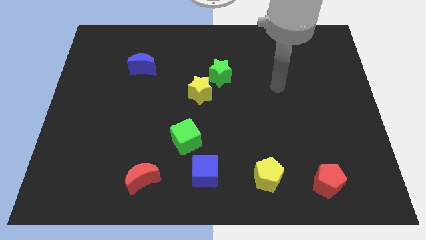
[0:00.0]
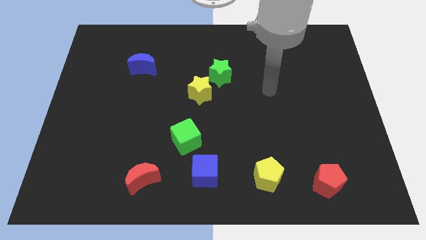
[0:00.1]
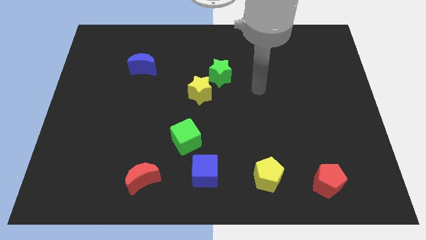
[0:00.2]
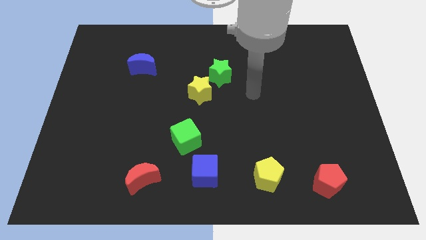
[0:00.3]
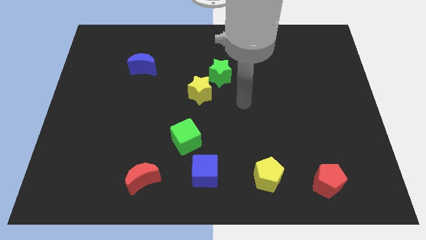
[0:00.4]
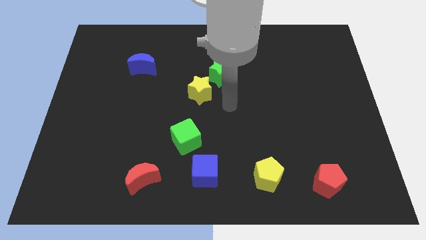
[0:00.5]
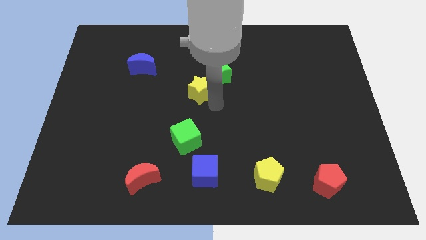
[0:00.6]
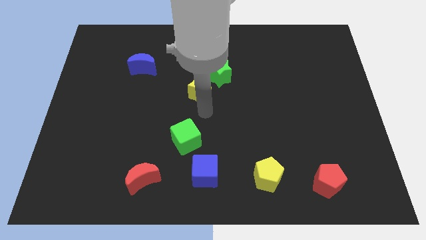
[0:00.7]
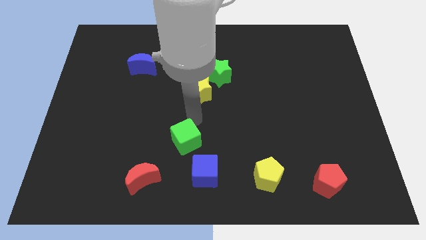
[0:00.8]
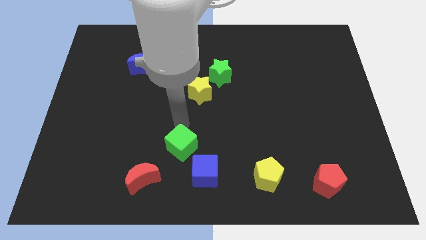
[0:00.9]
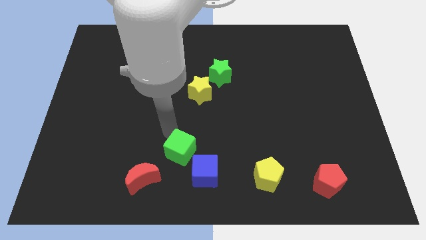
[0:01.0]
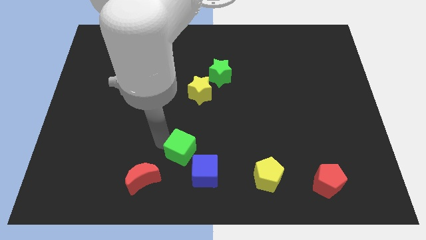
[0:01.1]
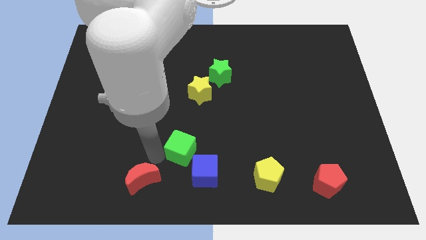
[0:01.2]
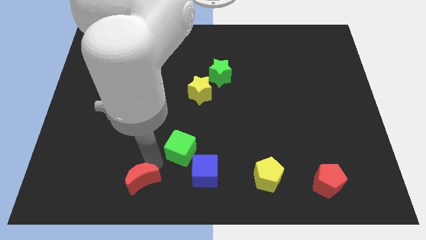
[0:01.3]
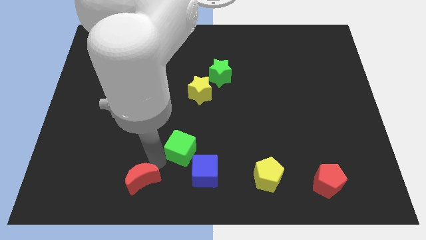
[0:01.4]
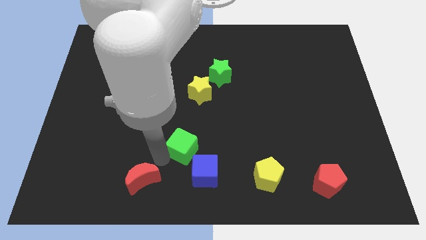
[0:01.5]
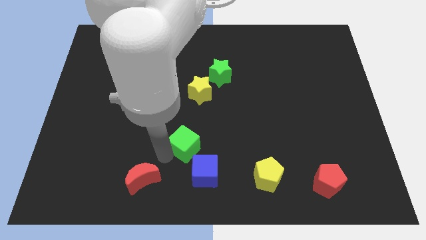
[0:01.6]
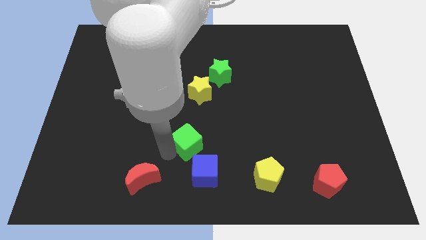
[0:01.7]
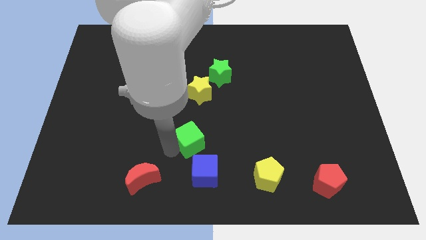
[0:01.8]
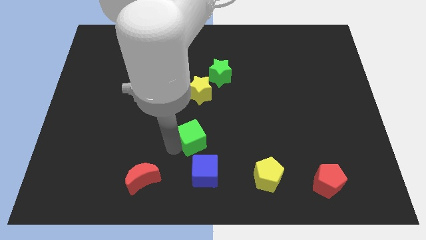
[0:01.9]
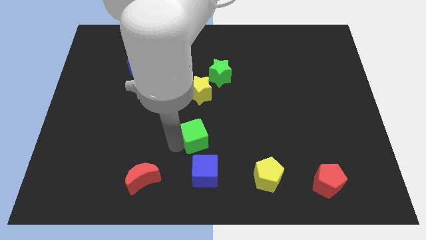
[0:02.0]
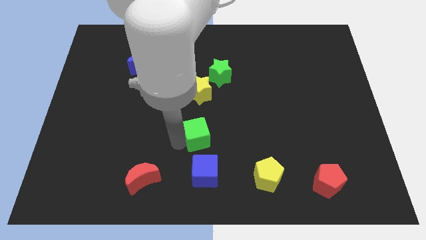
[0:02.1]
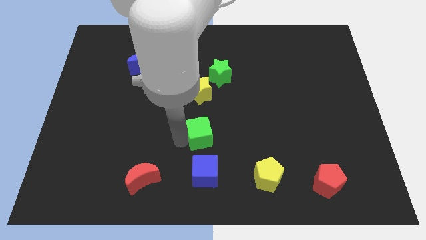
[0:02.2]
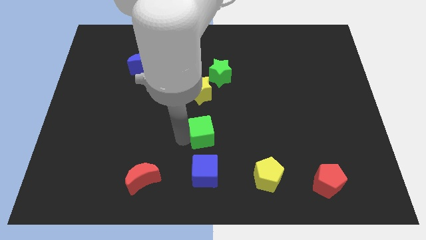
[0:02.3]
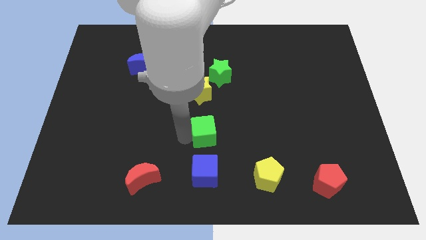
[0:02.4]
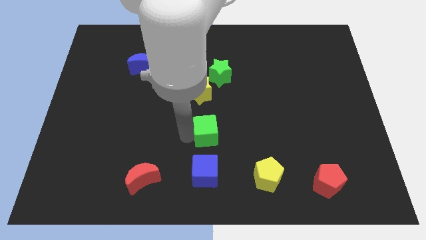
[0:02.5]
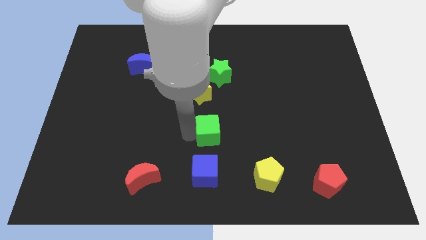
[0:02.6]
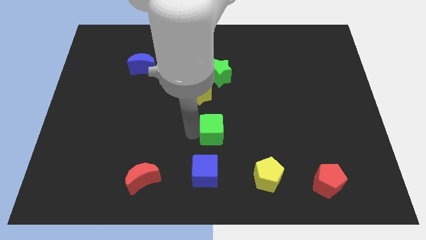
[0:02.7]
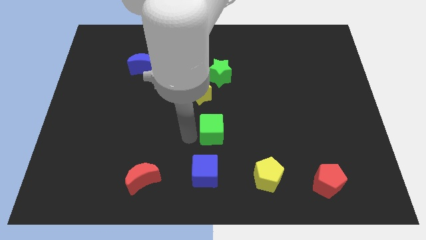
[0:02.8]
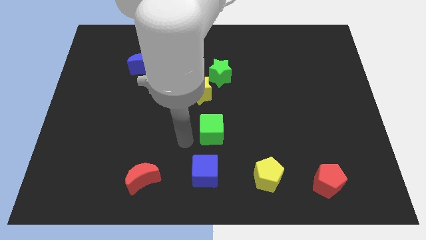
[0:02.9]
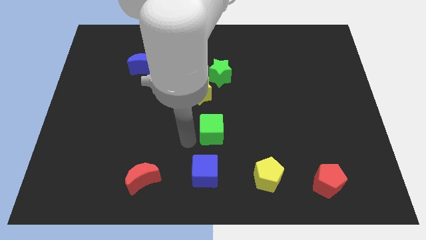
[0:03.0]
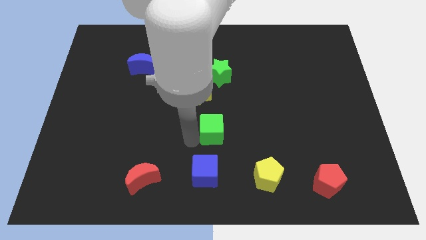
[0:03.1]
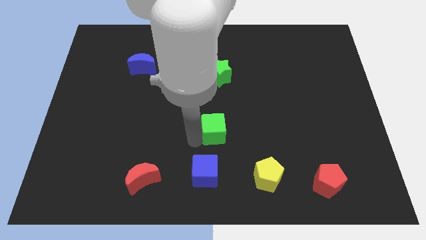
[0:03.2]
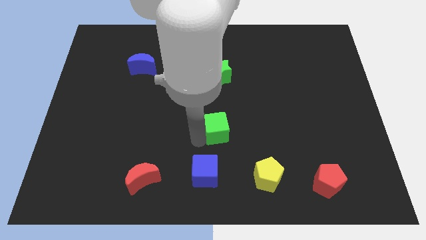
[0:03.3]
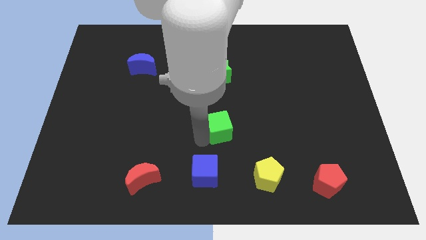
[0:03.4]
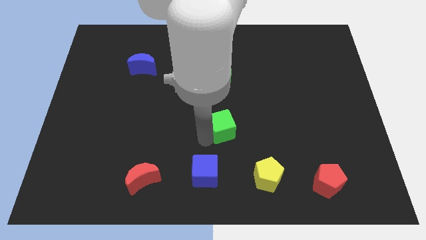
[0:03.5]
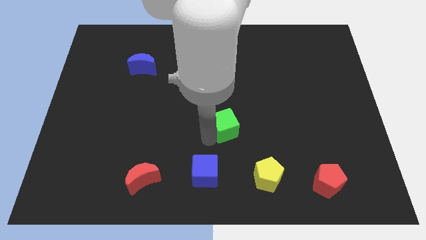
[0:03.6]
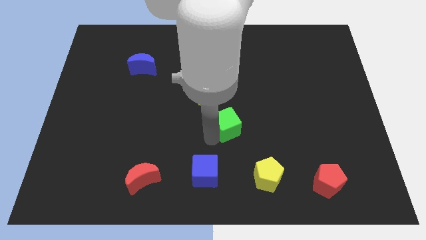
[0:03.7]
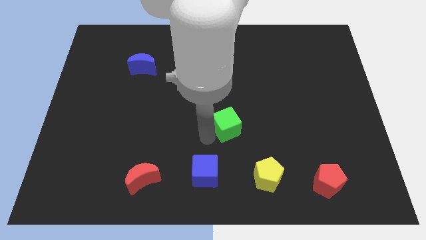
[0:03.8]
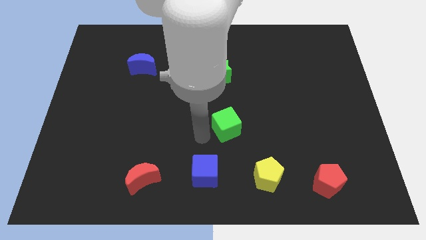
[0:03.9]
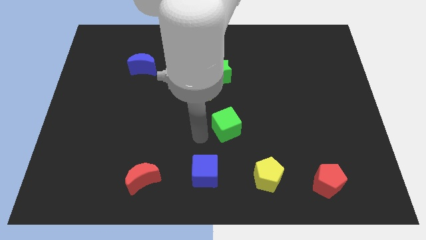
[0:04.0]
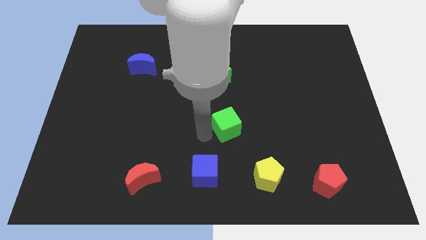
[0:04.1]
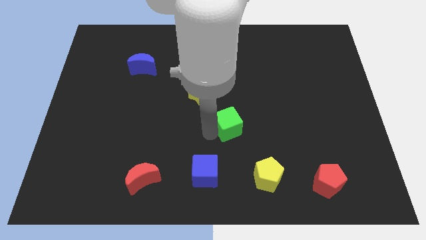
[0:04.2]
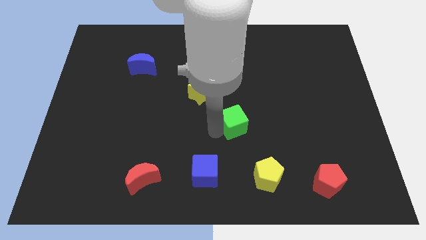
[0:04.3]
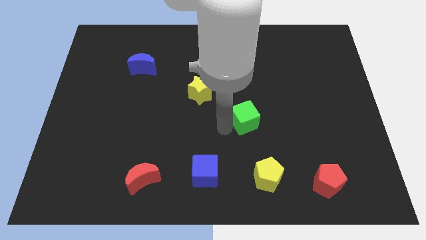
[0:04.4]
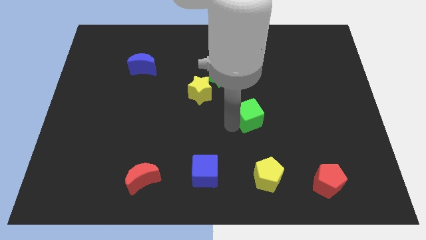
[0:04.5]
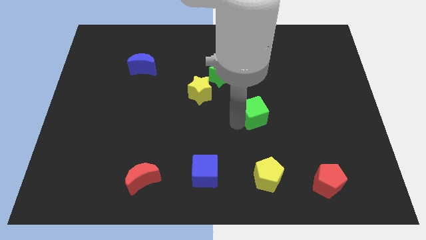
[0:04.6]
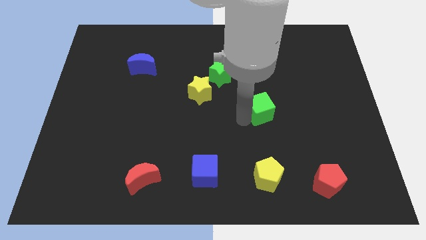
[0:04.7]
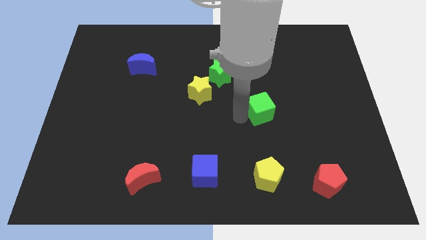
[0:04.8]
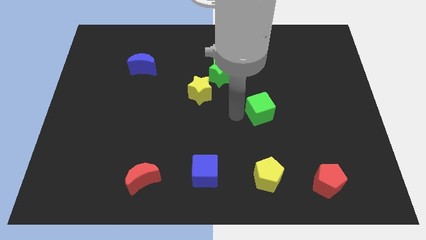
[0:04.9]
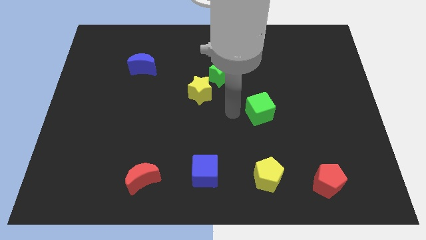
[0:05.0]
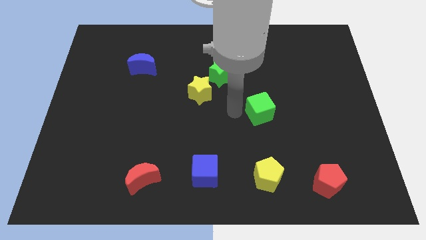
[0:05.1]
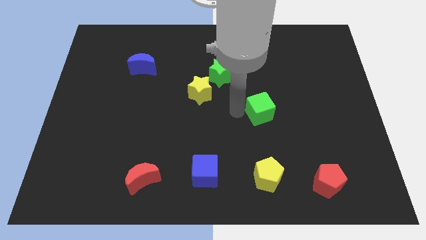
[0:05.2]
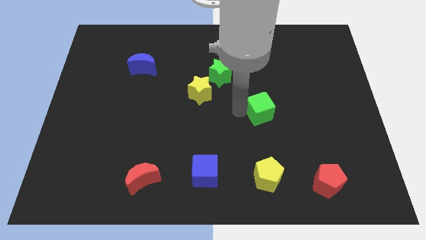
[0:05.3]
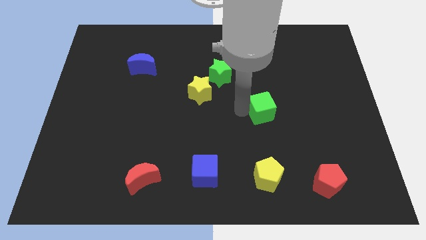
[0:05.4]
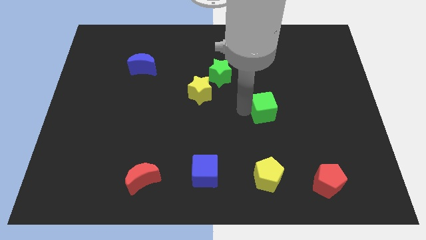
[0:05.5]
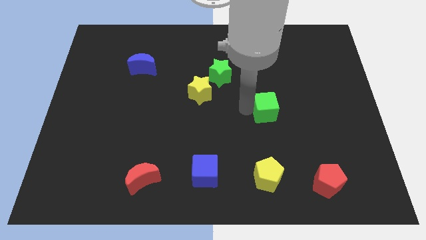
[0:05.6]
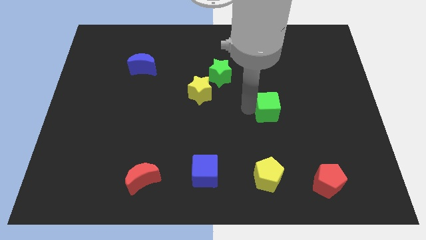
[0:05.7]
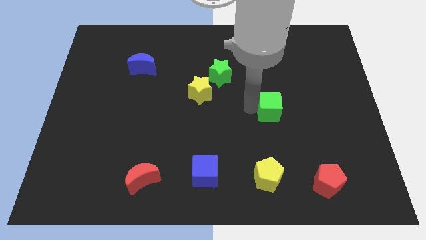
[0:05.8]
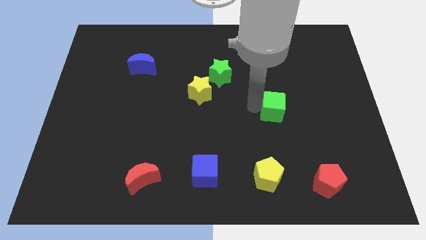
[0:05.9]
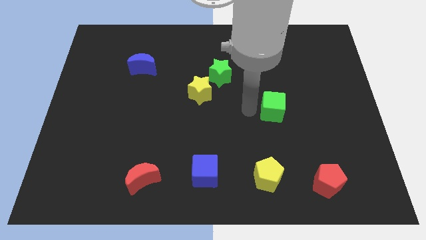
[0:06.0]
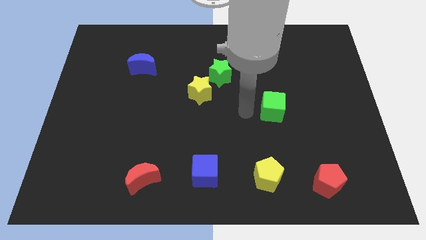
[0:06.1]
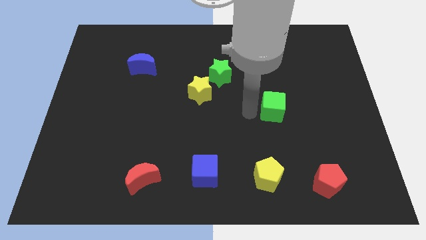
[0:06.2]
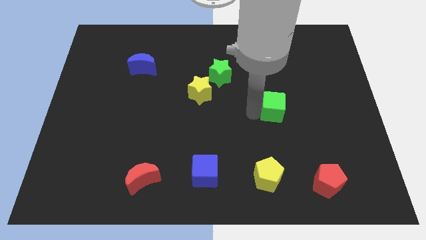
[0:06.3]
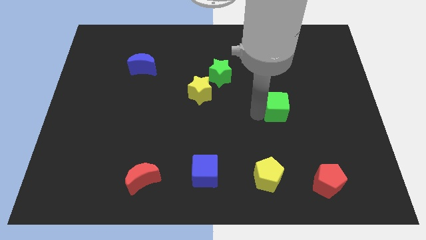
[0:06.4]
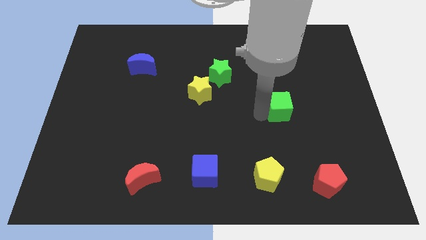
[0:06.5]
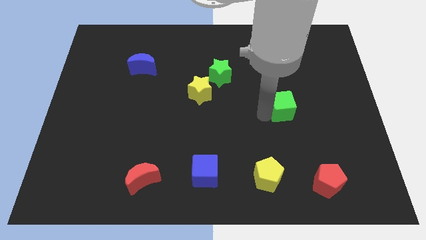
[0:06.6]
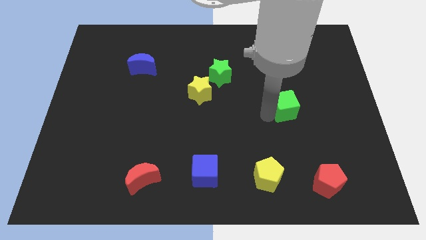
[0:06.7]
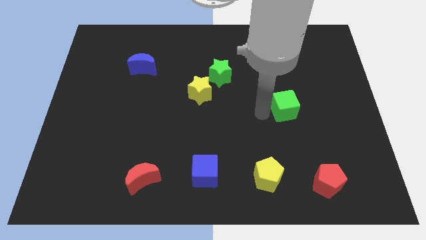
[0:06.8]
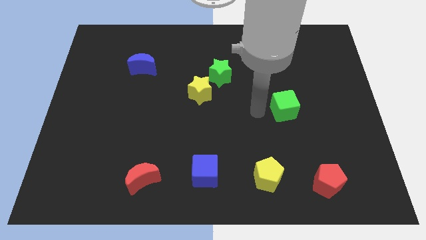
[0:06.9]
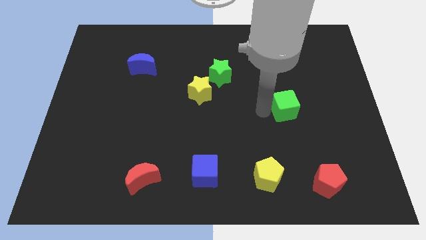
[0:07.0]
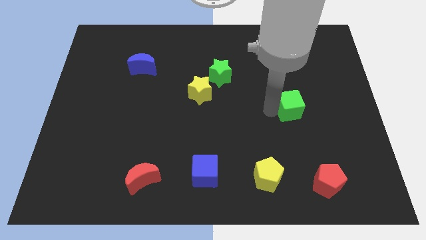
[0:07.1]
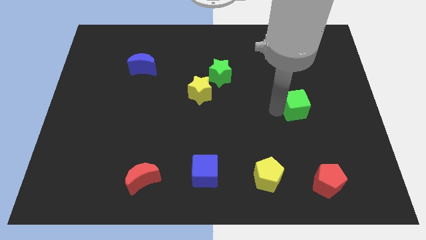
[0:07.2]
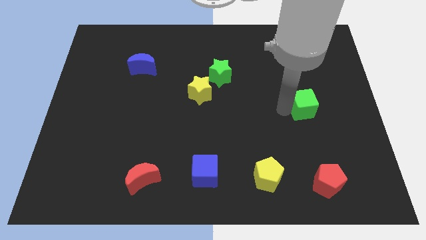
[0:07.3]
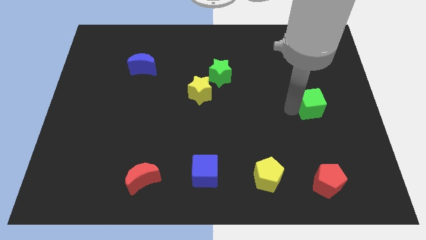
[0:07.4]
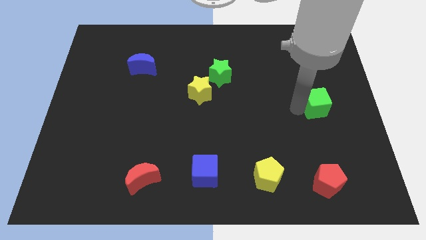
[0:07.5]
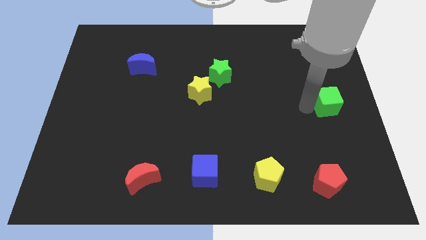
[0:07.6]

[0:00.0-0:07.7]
move the green cube to the right side

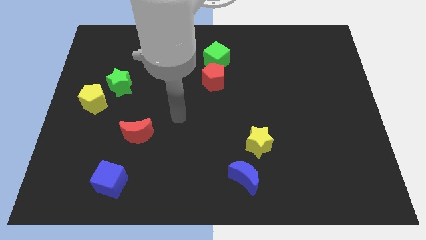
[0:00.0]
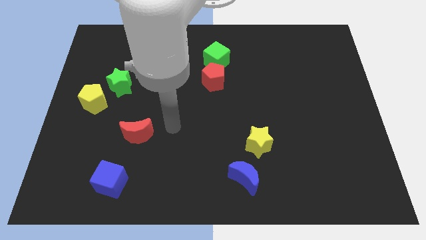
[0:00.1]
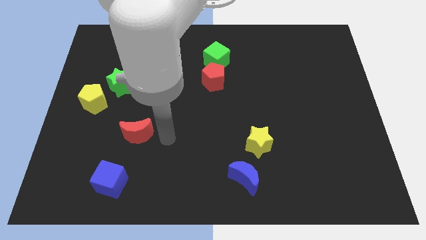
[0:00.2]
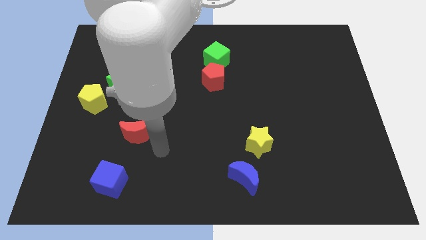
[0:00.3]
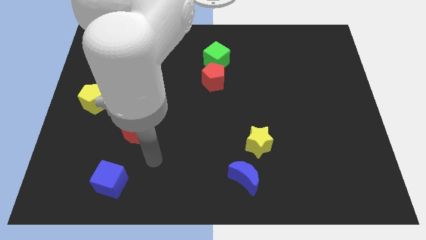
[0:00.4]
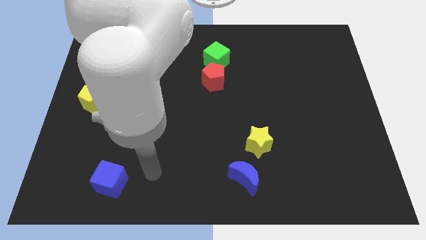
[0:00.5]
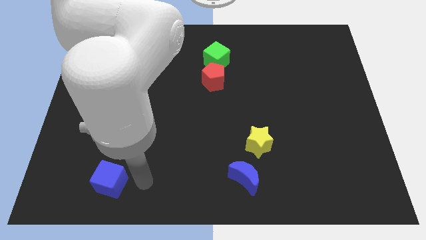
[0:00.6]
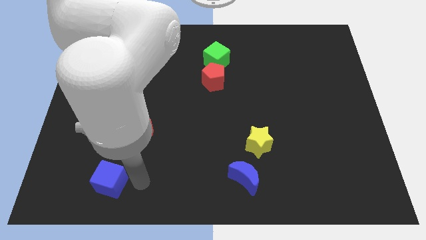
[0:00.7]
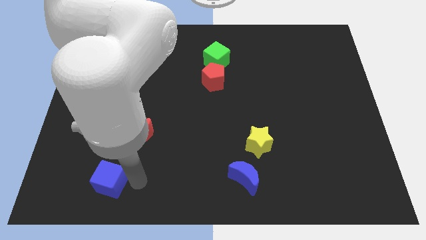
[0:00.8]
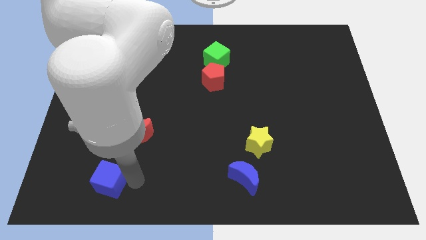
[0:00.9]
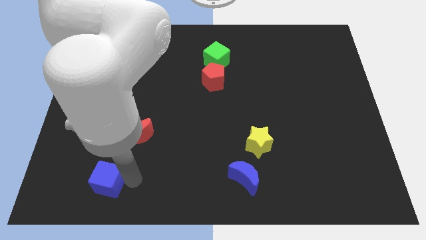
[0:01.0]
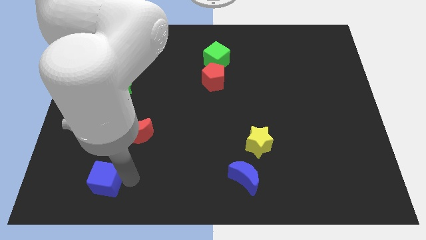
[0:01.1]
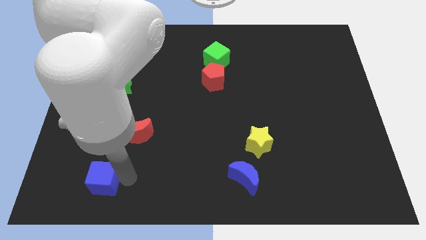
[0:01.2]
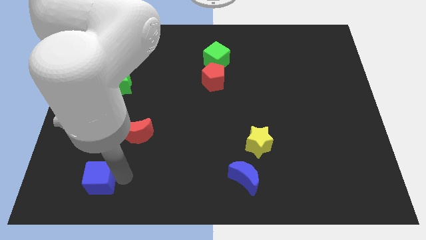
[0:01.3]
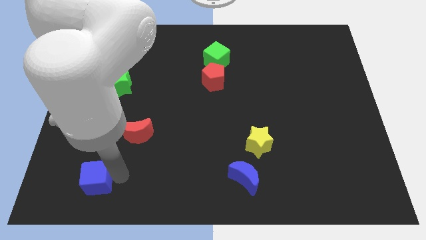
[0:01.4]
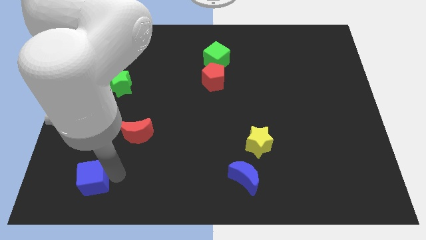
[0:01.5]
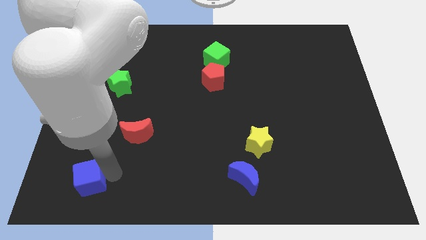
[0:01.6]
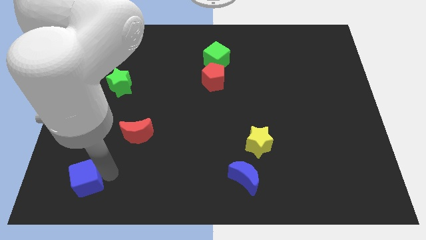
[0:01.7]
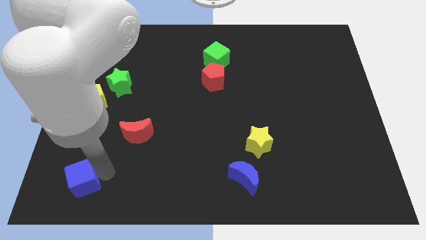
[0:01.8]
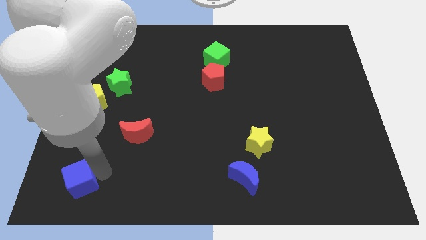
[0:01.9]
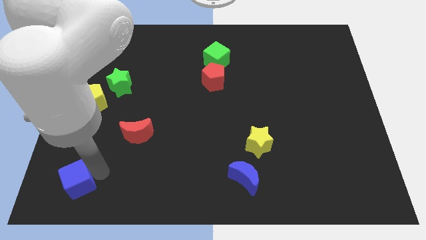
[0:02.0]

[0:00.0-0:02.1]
put the blue cube to the bottom left
